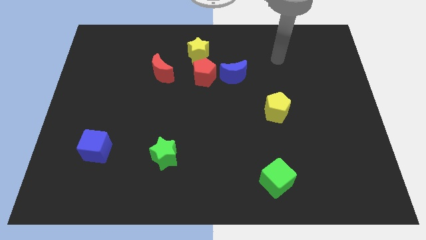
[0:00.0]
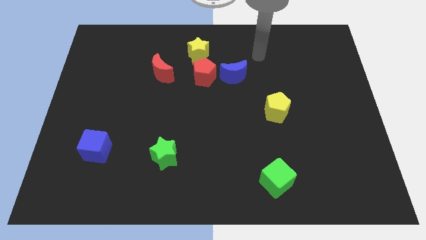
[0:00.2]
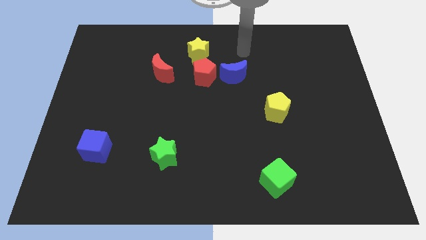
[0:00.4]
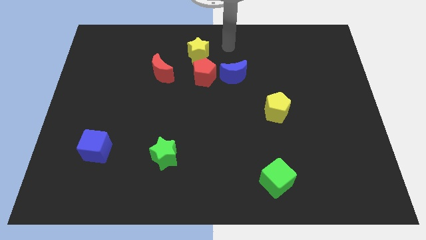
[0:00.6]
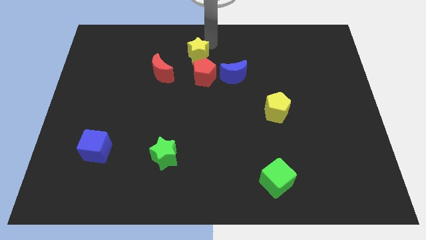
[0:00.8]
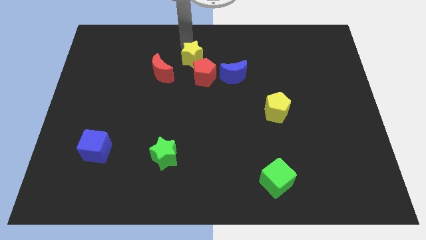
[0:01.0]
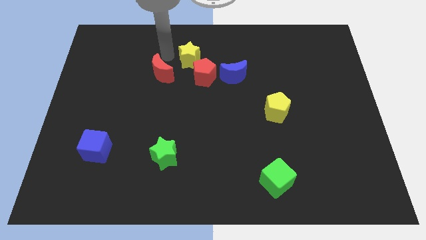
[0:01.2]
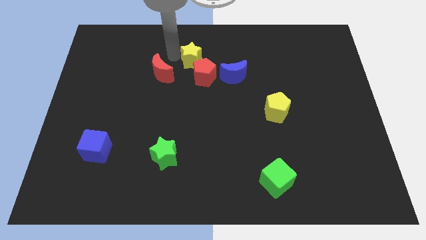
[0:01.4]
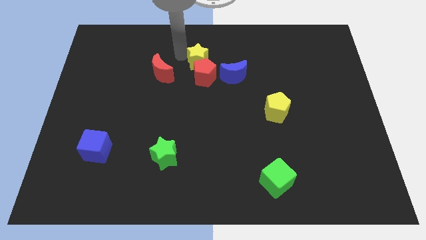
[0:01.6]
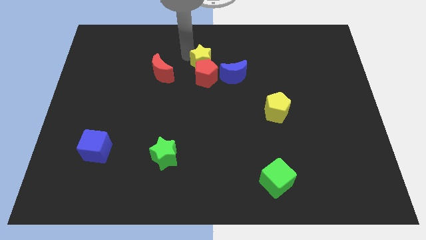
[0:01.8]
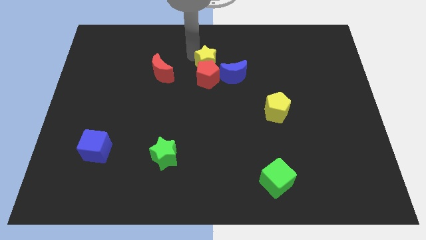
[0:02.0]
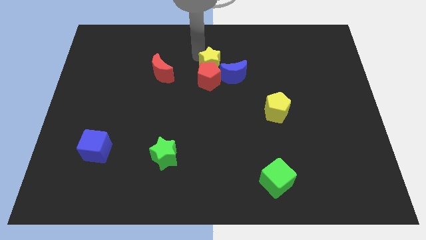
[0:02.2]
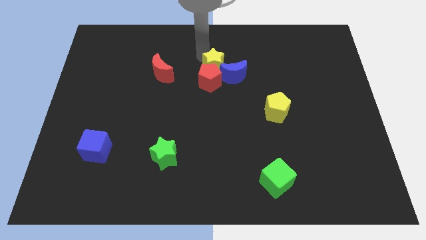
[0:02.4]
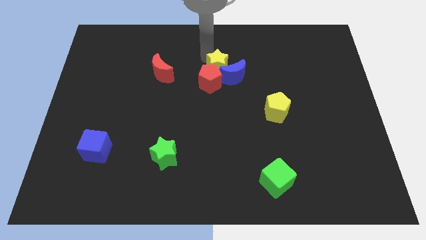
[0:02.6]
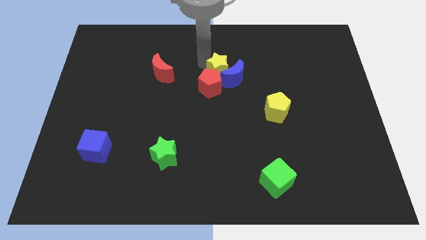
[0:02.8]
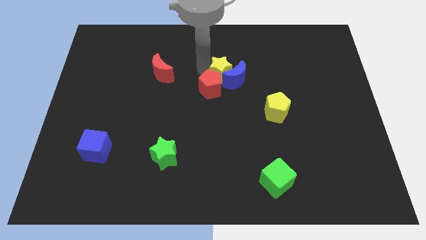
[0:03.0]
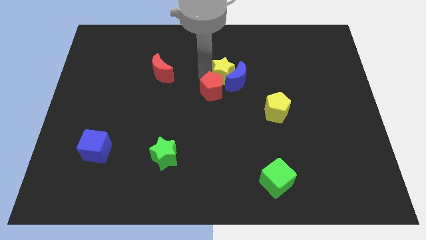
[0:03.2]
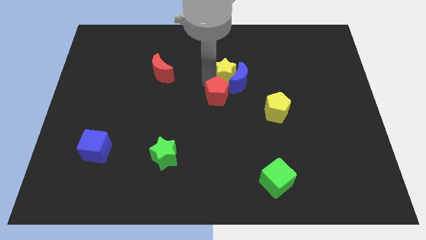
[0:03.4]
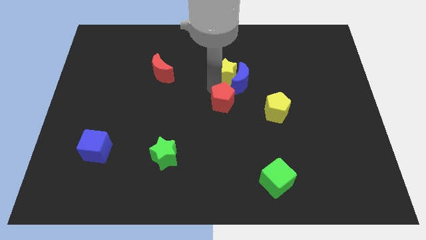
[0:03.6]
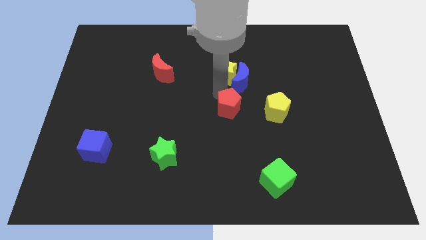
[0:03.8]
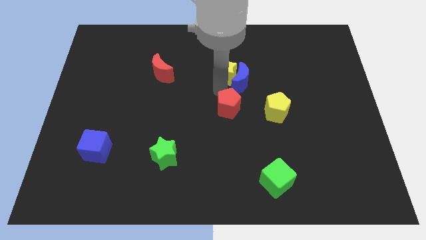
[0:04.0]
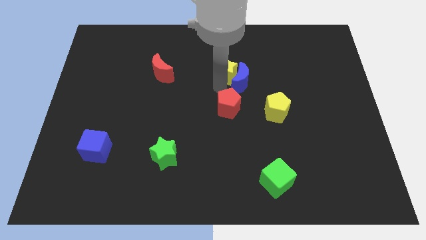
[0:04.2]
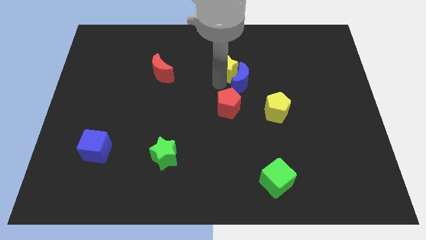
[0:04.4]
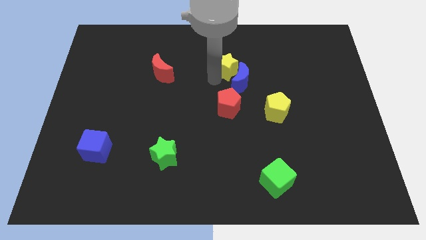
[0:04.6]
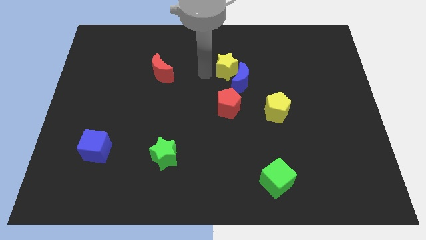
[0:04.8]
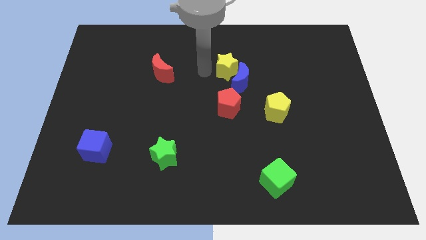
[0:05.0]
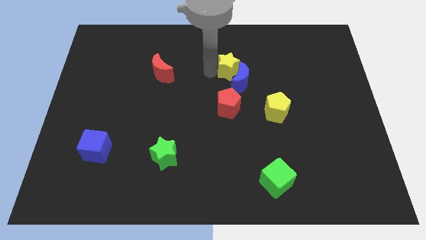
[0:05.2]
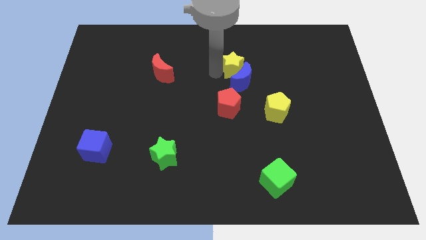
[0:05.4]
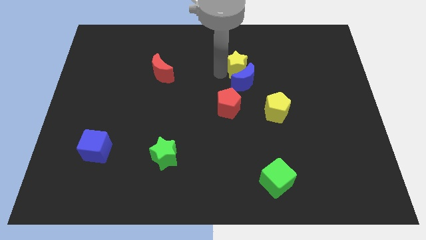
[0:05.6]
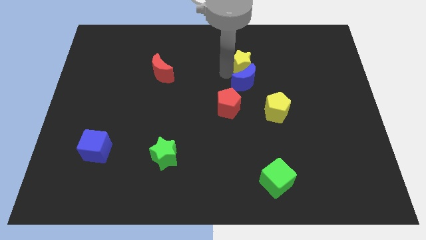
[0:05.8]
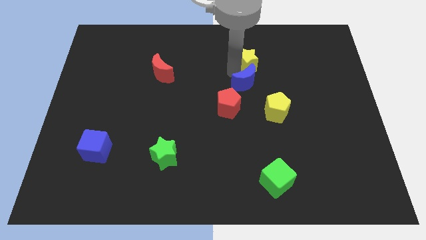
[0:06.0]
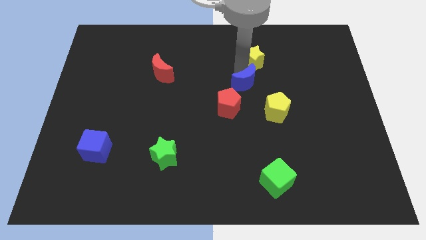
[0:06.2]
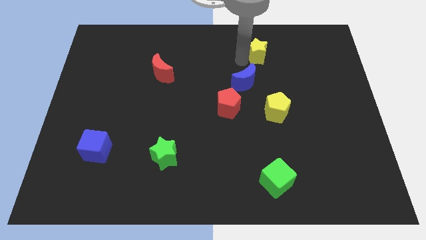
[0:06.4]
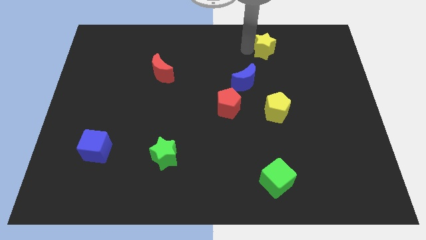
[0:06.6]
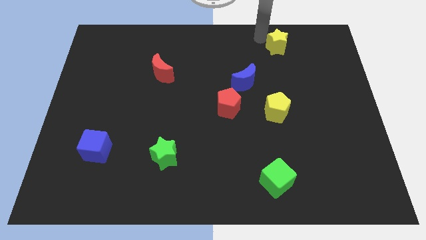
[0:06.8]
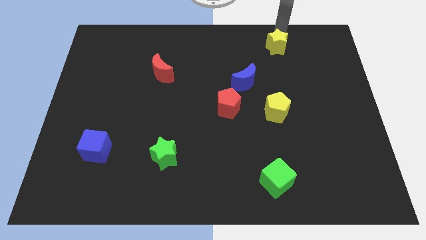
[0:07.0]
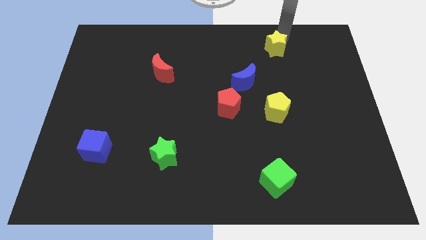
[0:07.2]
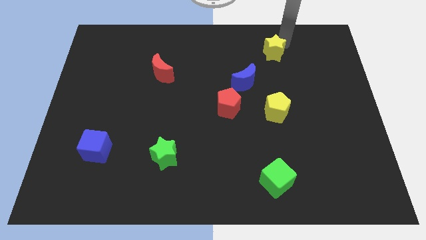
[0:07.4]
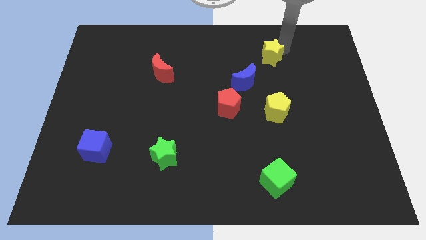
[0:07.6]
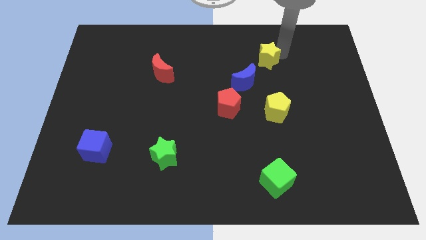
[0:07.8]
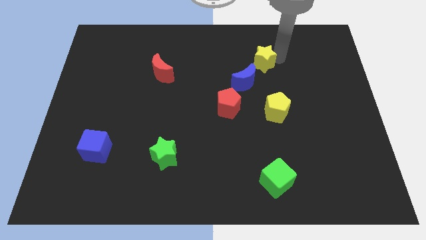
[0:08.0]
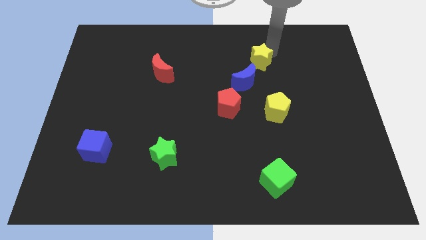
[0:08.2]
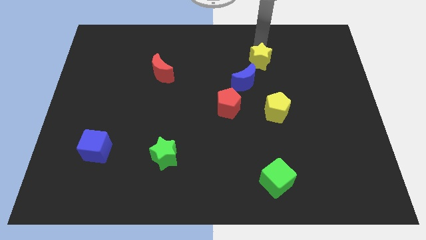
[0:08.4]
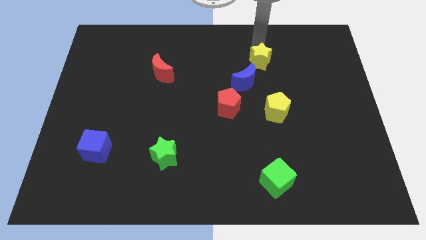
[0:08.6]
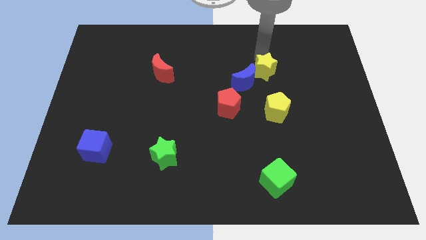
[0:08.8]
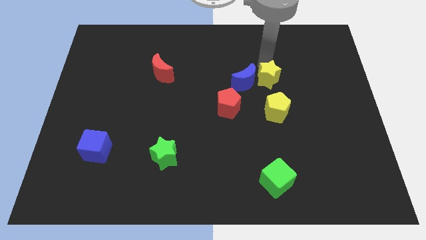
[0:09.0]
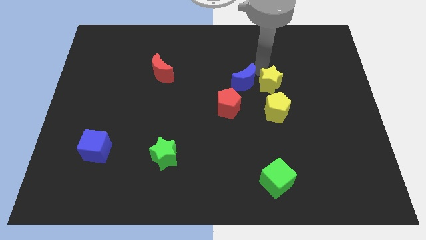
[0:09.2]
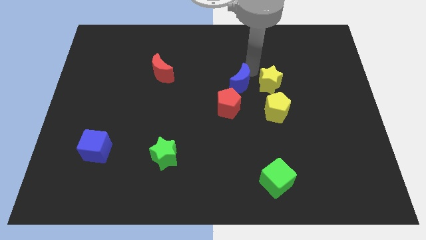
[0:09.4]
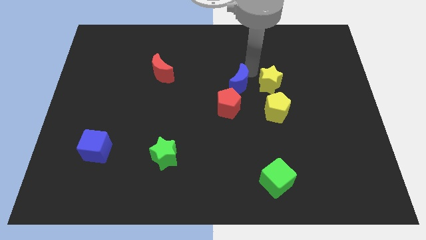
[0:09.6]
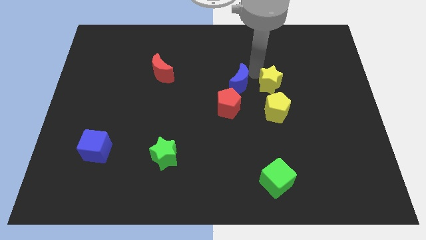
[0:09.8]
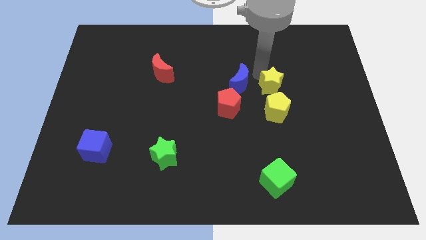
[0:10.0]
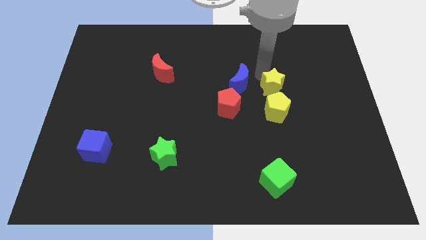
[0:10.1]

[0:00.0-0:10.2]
move the yellow star down and right

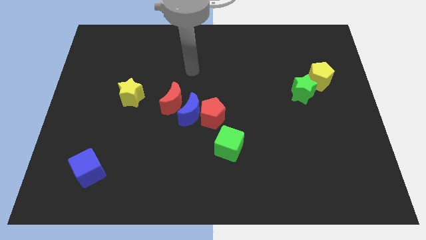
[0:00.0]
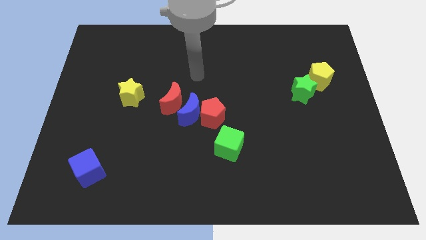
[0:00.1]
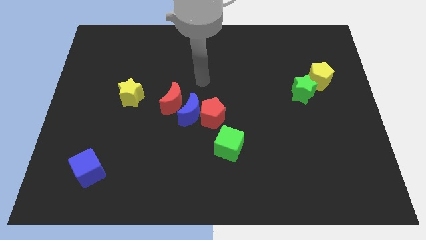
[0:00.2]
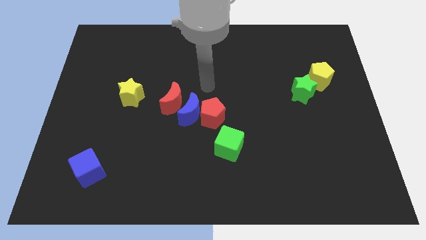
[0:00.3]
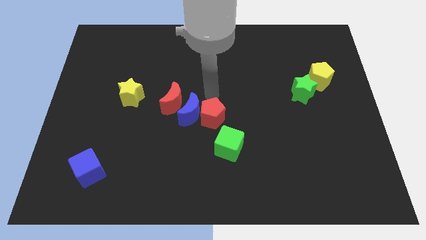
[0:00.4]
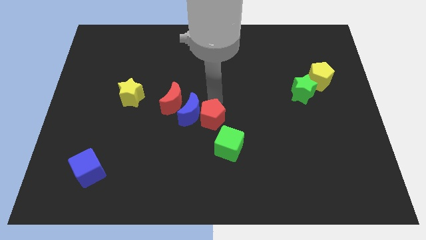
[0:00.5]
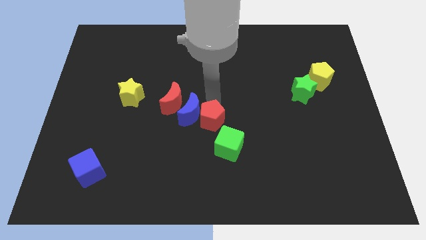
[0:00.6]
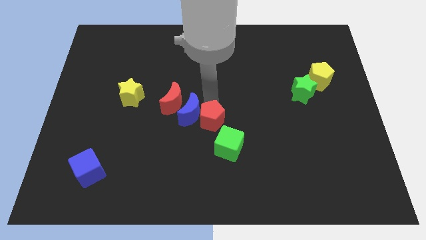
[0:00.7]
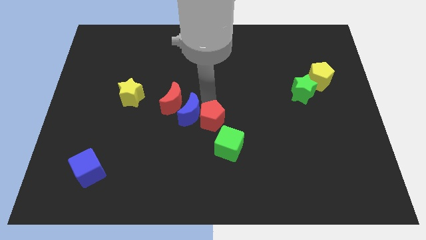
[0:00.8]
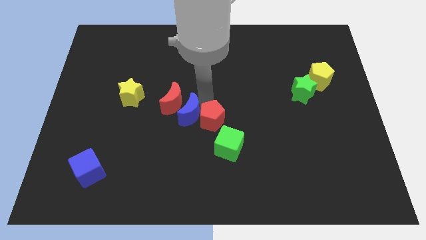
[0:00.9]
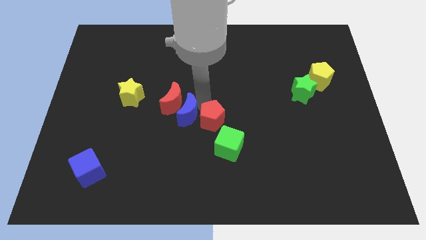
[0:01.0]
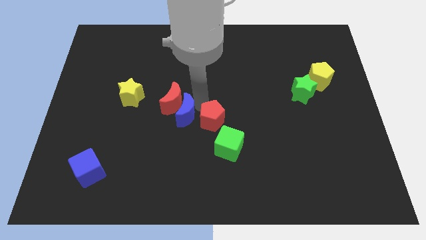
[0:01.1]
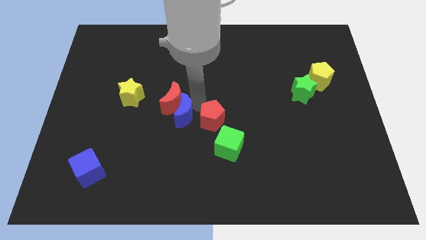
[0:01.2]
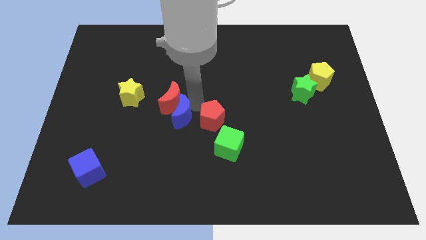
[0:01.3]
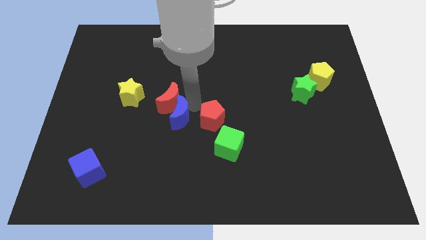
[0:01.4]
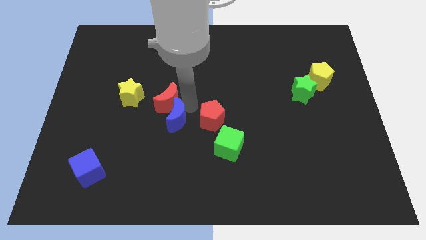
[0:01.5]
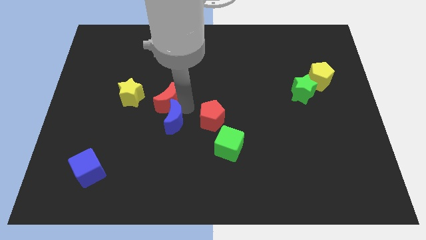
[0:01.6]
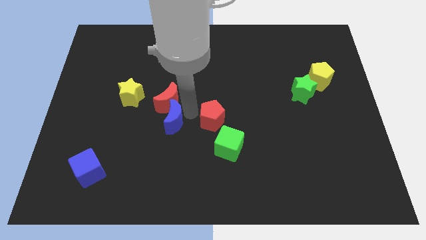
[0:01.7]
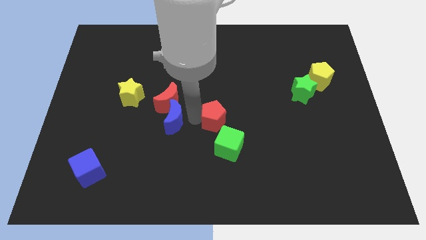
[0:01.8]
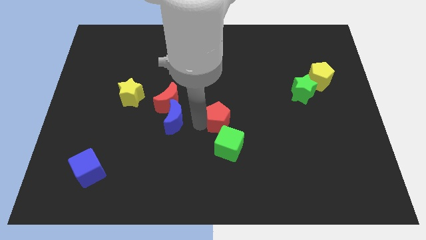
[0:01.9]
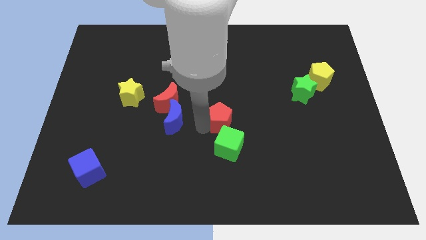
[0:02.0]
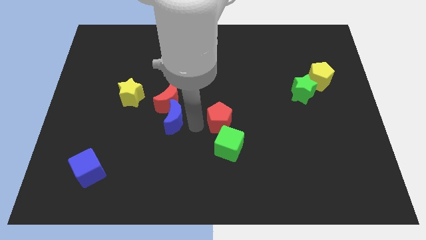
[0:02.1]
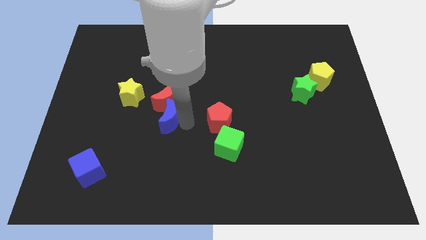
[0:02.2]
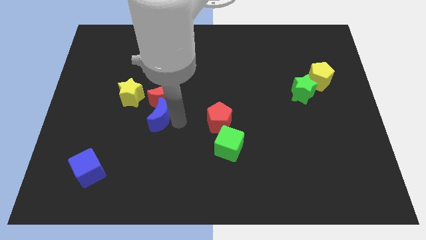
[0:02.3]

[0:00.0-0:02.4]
move the blue moon a bit to the left

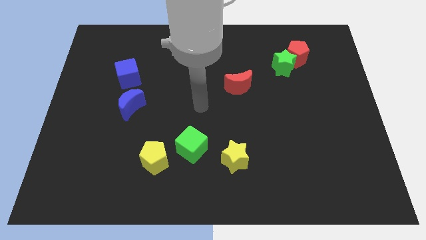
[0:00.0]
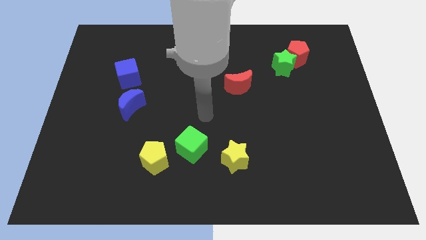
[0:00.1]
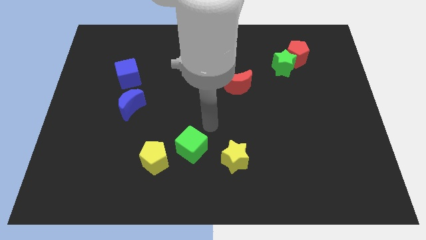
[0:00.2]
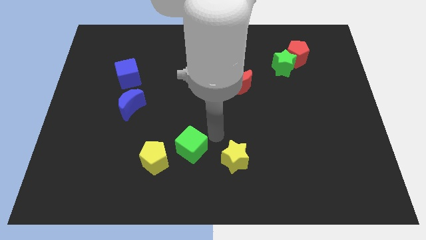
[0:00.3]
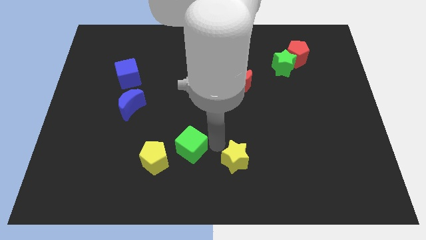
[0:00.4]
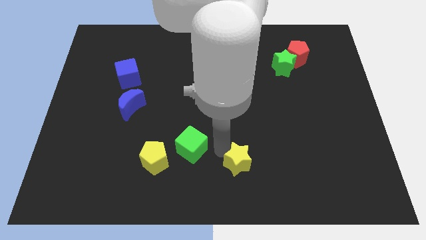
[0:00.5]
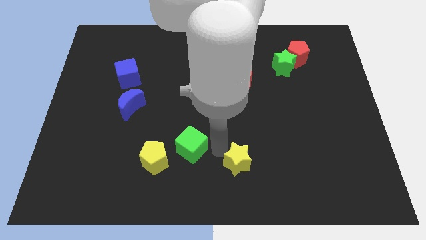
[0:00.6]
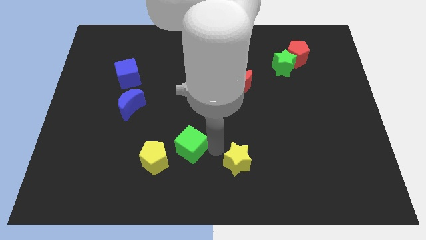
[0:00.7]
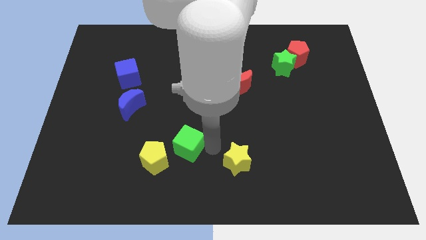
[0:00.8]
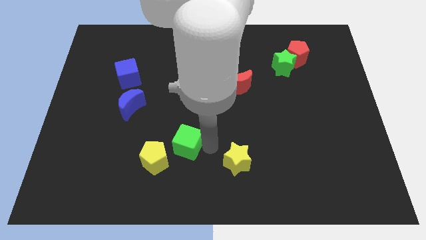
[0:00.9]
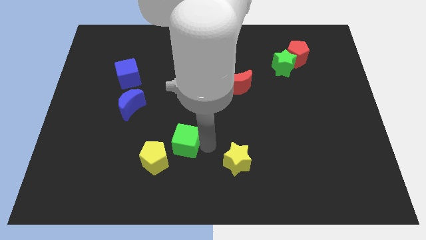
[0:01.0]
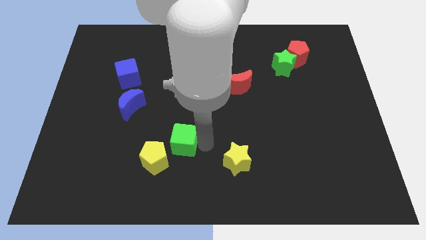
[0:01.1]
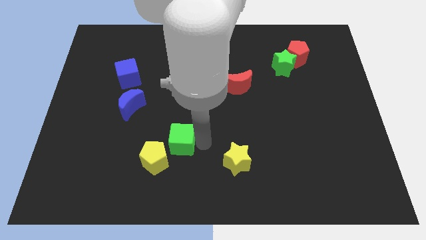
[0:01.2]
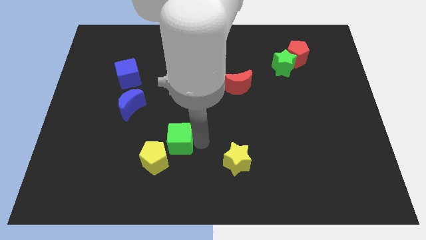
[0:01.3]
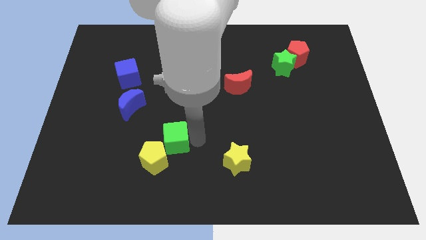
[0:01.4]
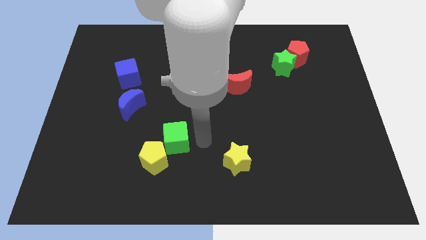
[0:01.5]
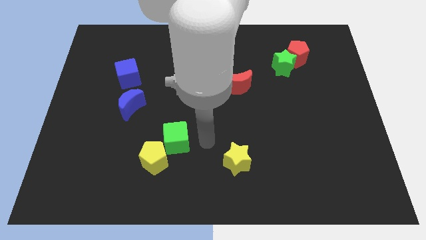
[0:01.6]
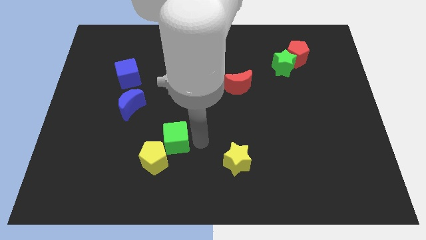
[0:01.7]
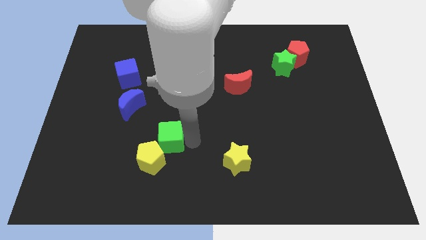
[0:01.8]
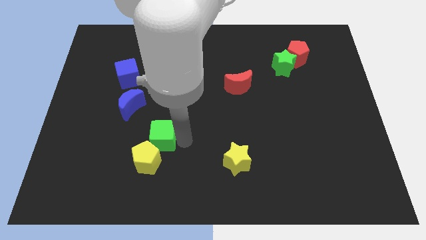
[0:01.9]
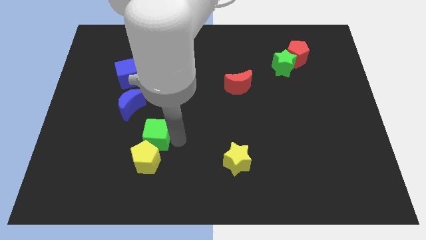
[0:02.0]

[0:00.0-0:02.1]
slide the green cube to the left slightly
